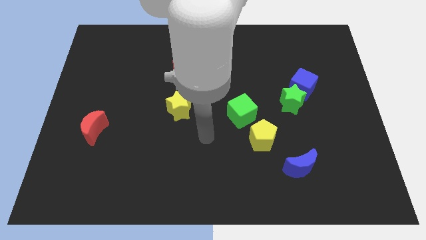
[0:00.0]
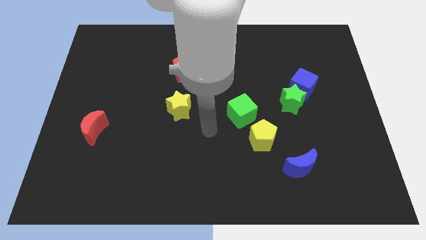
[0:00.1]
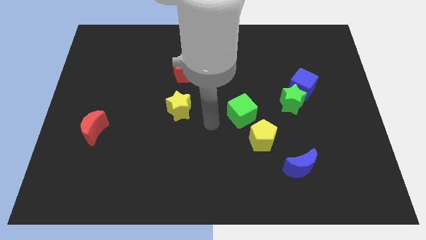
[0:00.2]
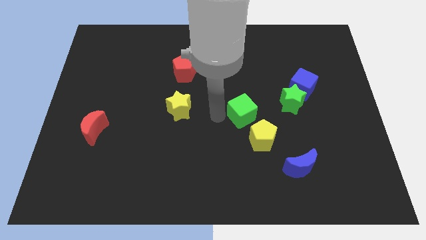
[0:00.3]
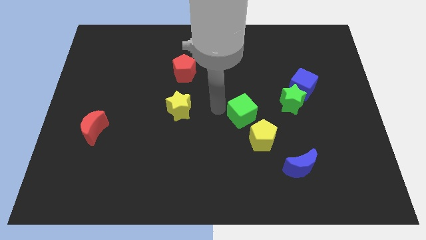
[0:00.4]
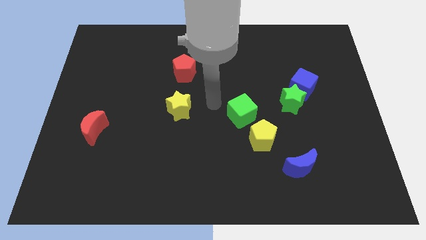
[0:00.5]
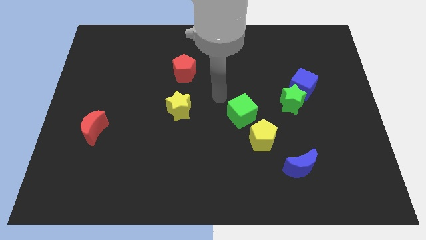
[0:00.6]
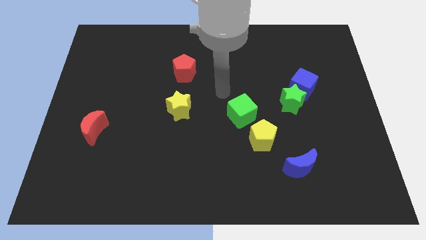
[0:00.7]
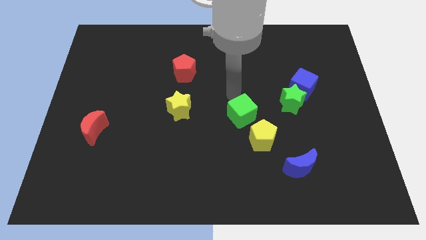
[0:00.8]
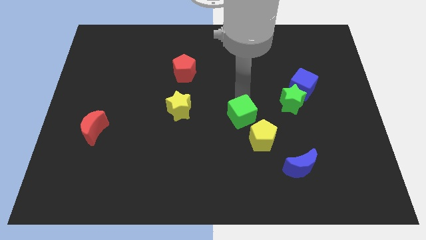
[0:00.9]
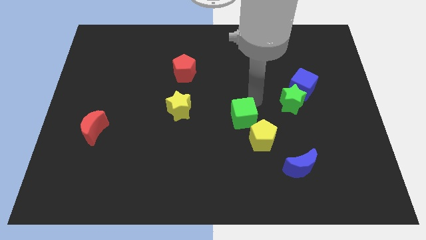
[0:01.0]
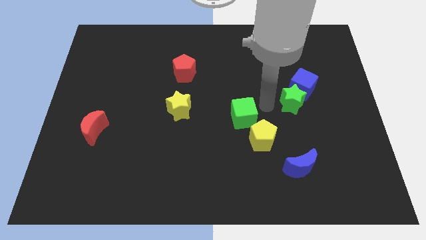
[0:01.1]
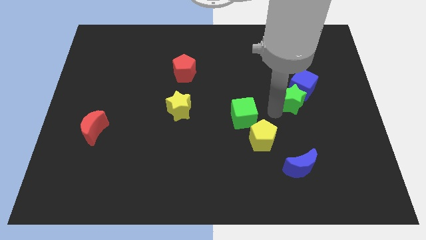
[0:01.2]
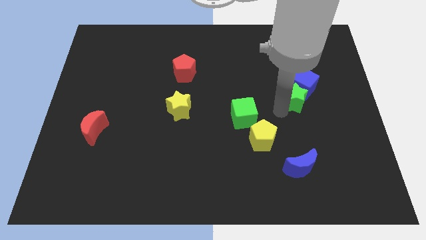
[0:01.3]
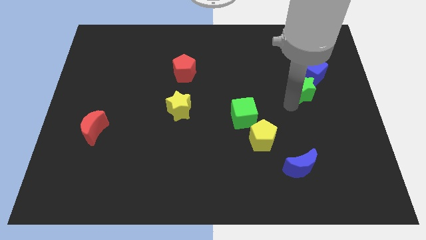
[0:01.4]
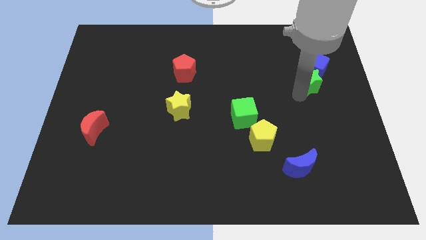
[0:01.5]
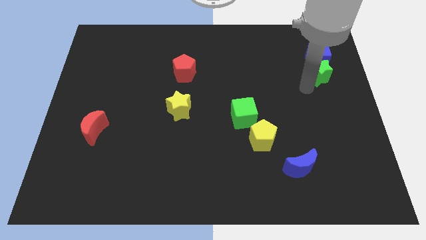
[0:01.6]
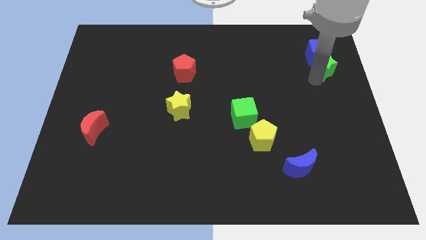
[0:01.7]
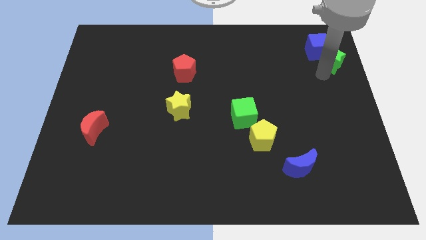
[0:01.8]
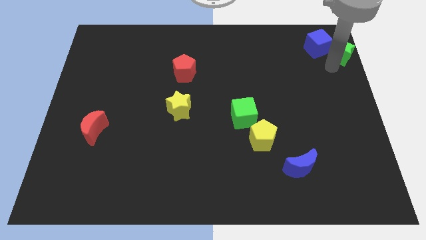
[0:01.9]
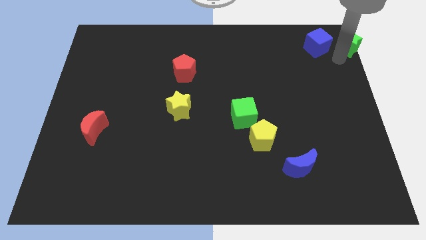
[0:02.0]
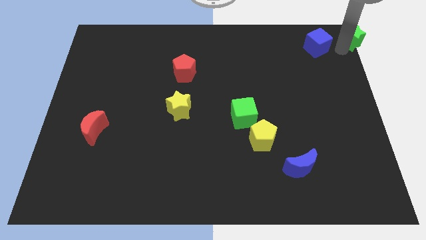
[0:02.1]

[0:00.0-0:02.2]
pull the blue cube apart from the green star

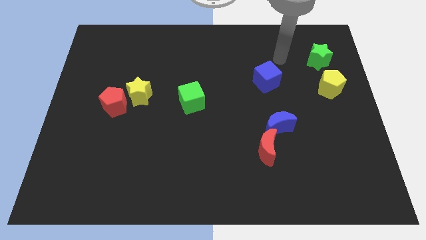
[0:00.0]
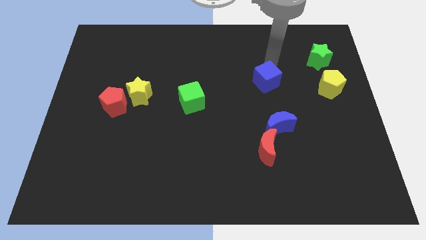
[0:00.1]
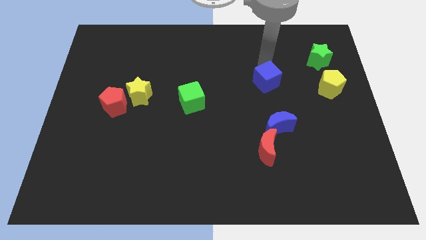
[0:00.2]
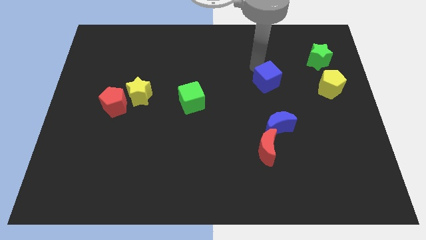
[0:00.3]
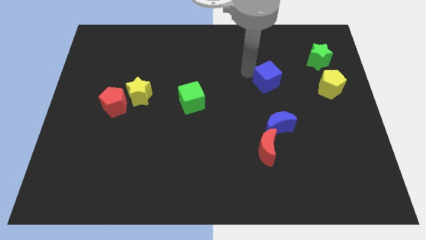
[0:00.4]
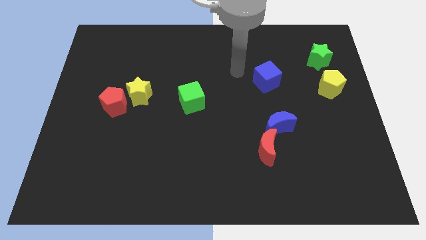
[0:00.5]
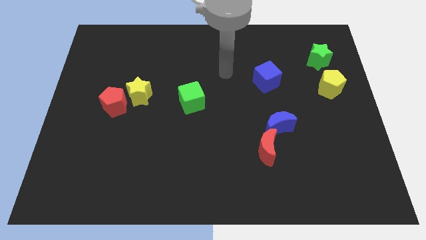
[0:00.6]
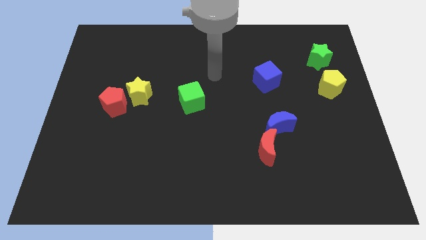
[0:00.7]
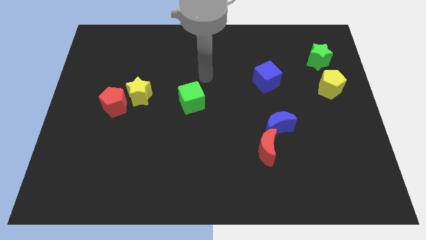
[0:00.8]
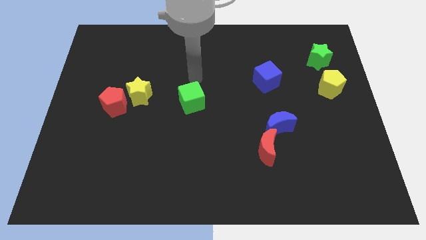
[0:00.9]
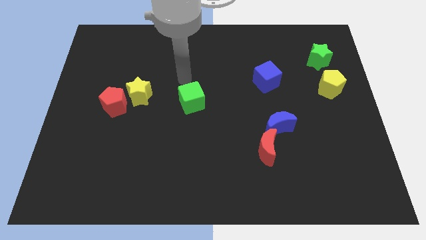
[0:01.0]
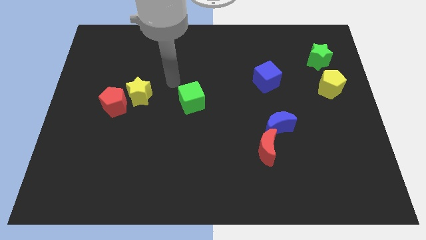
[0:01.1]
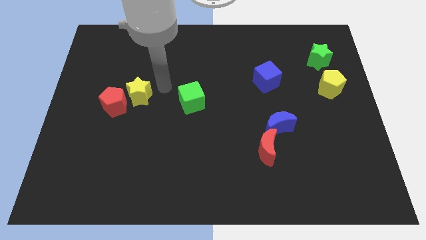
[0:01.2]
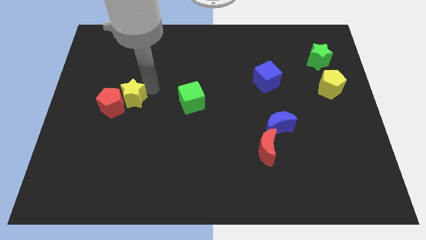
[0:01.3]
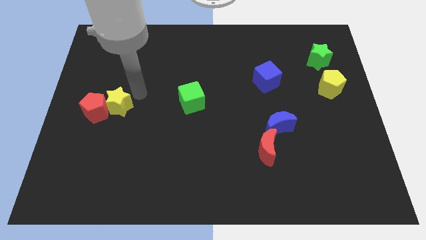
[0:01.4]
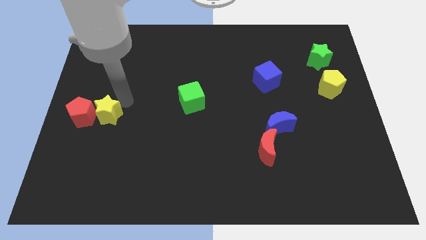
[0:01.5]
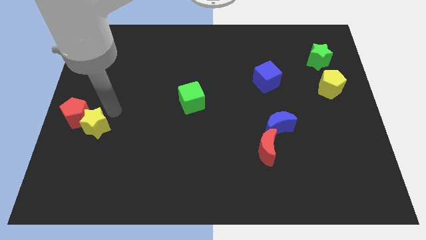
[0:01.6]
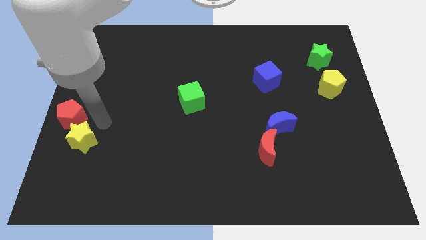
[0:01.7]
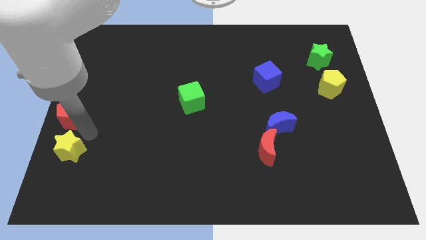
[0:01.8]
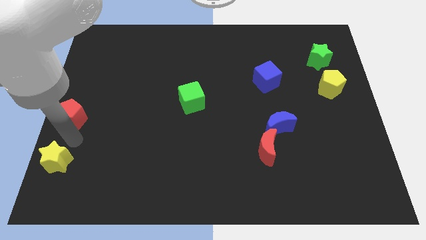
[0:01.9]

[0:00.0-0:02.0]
separate the red pentagon from the yellow star

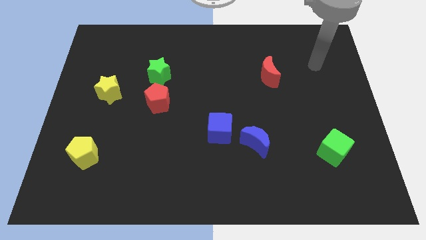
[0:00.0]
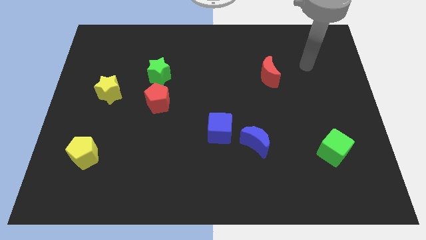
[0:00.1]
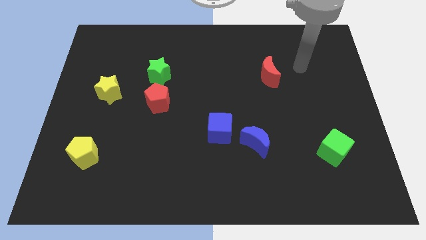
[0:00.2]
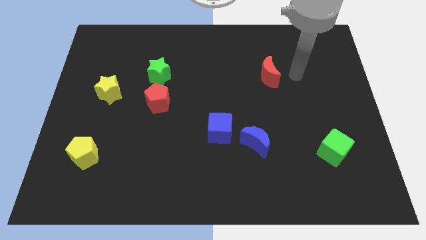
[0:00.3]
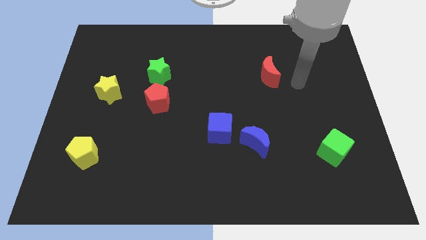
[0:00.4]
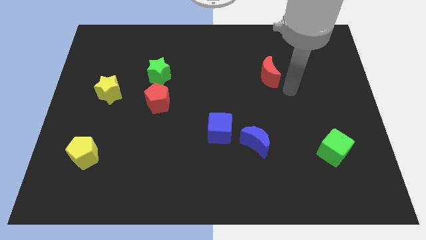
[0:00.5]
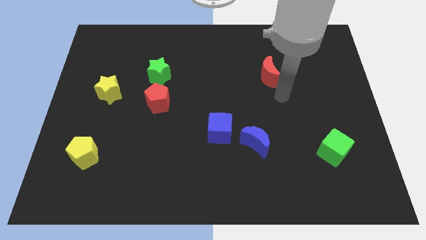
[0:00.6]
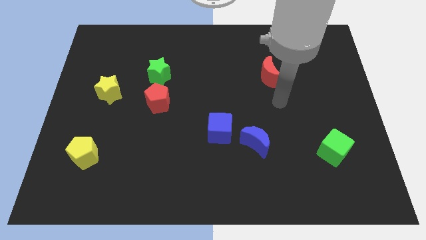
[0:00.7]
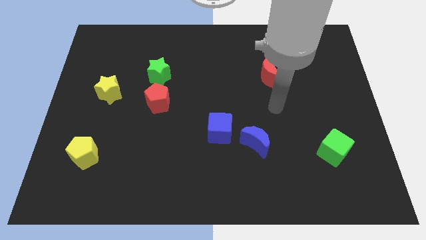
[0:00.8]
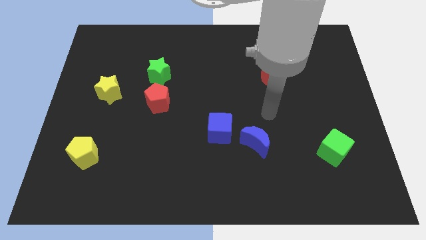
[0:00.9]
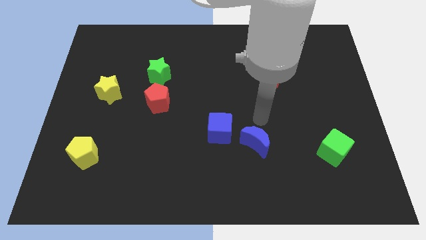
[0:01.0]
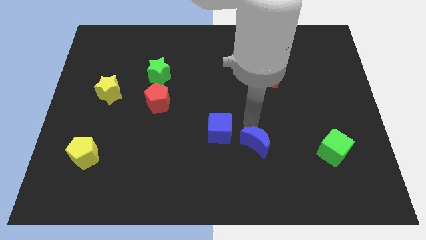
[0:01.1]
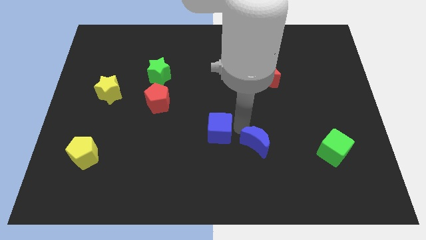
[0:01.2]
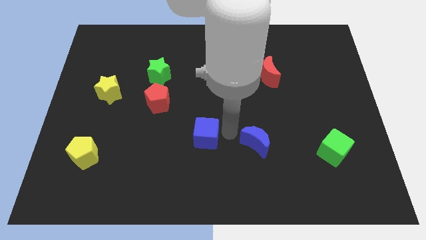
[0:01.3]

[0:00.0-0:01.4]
separate the blue moon from the blue cube

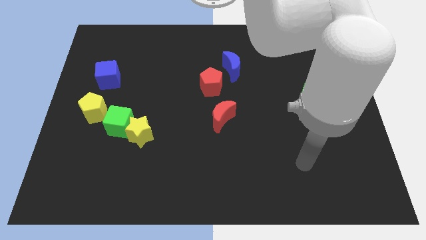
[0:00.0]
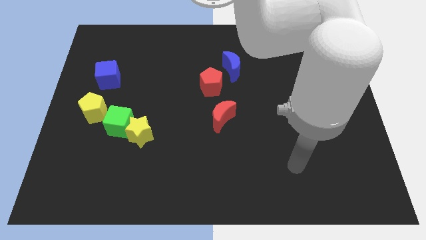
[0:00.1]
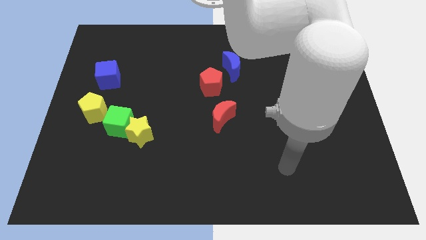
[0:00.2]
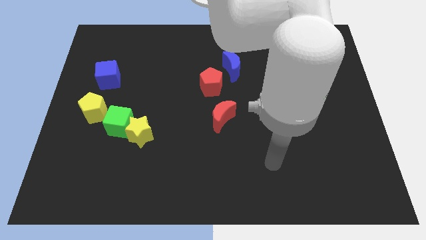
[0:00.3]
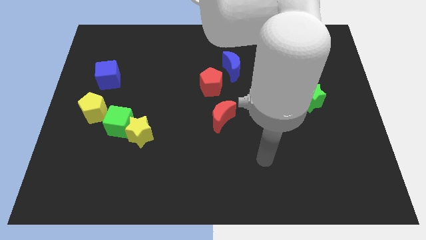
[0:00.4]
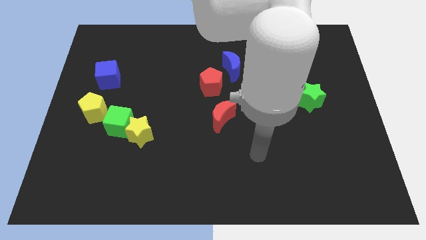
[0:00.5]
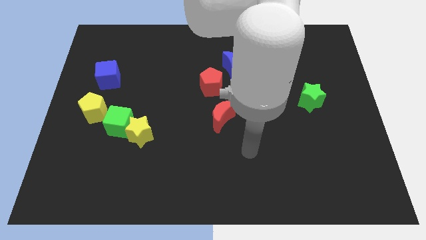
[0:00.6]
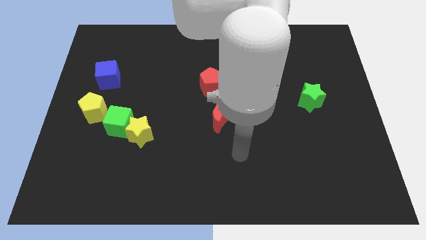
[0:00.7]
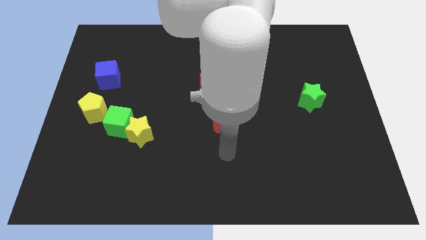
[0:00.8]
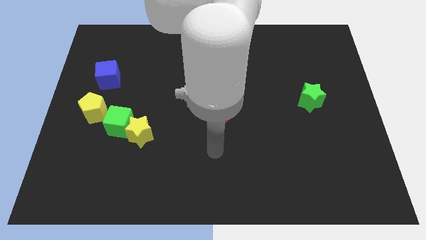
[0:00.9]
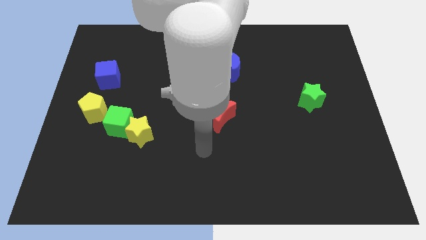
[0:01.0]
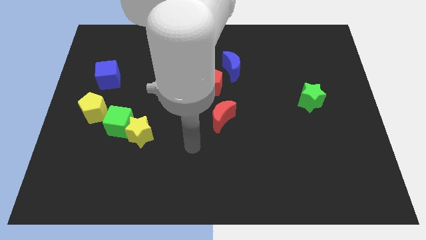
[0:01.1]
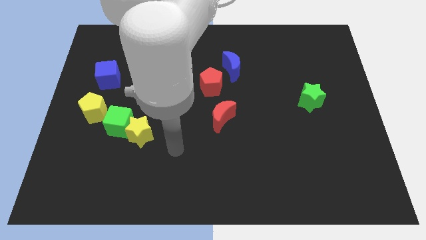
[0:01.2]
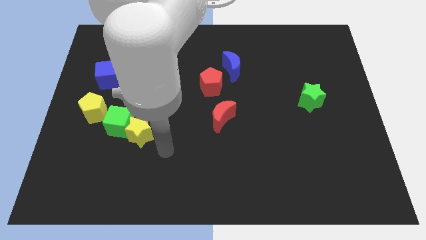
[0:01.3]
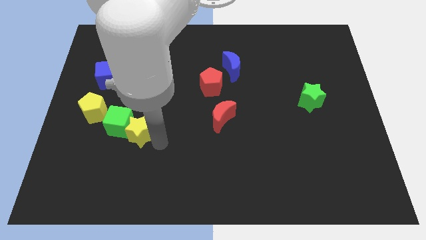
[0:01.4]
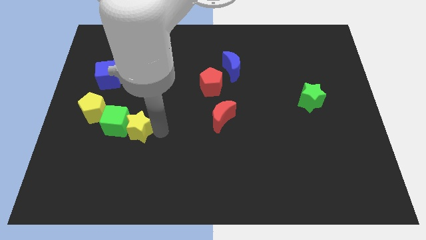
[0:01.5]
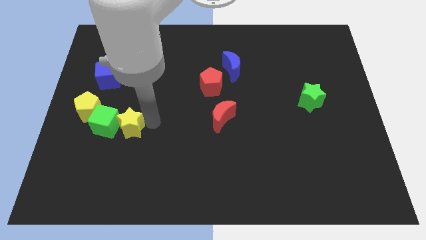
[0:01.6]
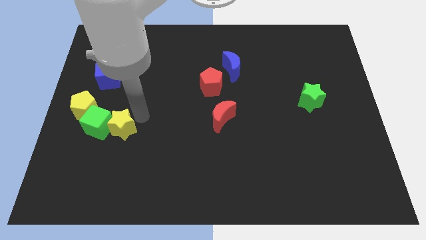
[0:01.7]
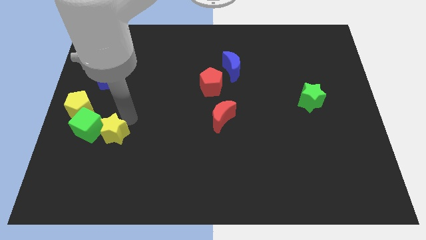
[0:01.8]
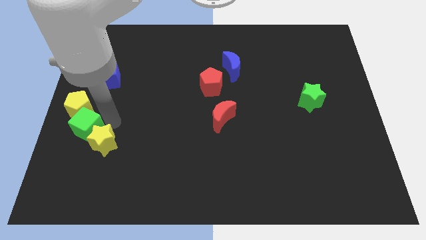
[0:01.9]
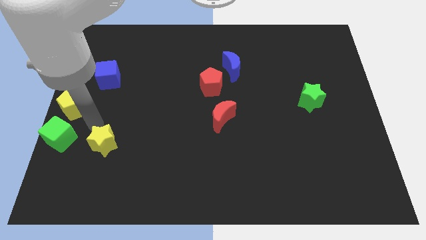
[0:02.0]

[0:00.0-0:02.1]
pull the yellow star apart from the green cube

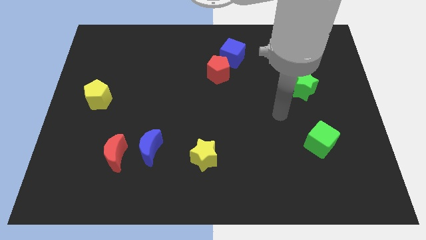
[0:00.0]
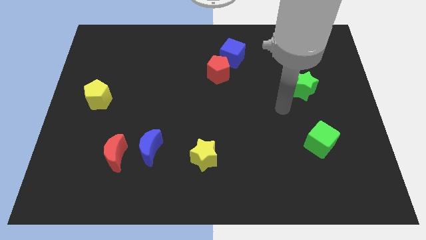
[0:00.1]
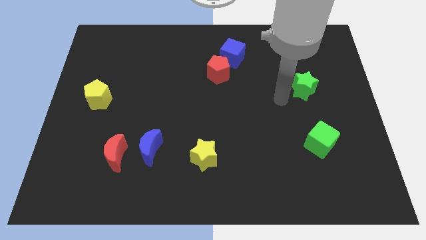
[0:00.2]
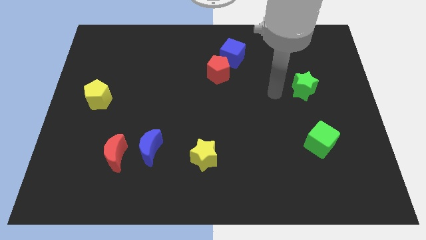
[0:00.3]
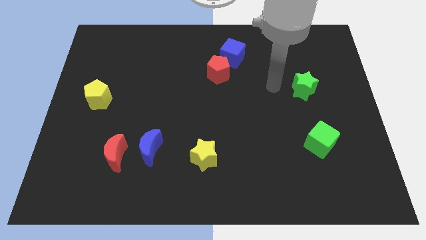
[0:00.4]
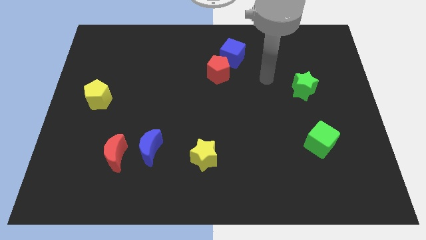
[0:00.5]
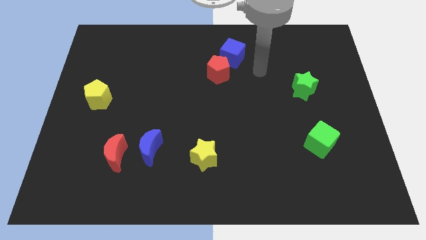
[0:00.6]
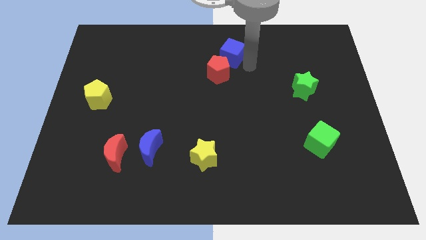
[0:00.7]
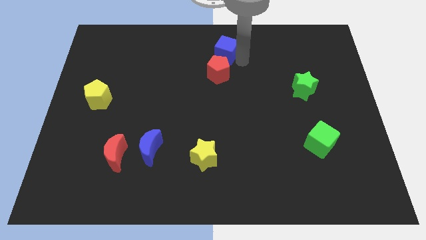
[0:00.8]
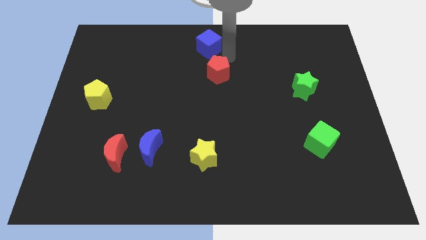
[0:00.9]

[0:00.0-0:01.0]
separate the red pentagon from the blue cube

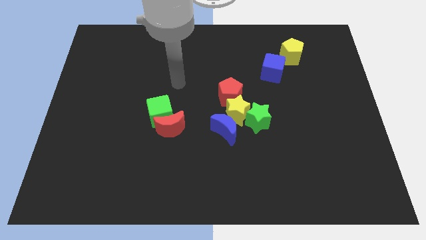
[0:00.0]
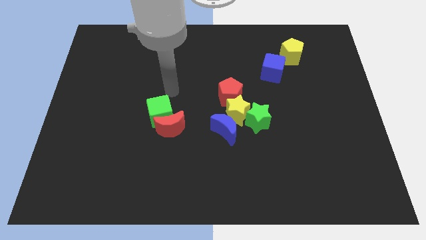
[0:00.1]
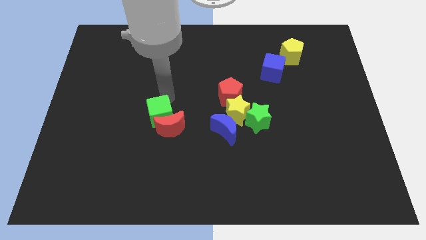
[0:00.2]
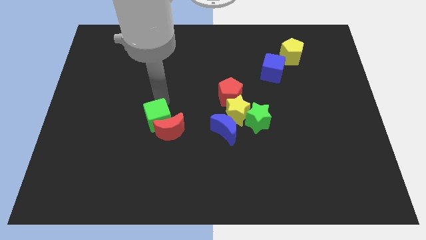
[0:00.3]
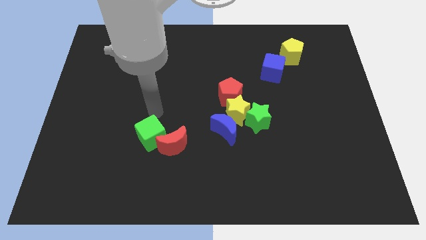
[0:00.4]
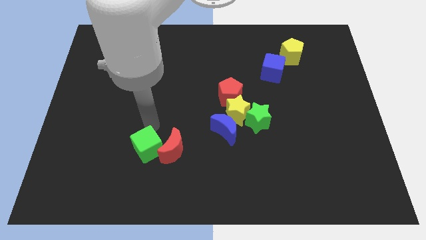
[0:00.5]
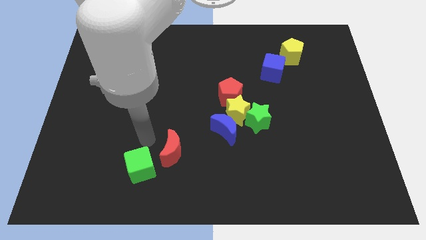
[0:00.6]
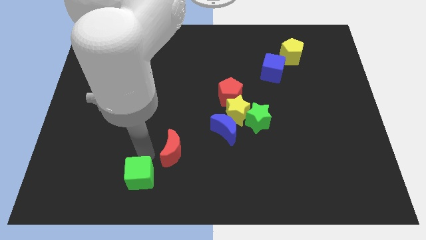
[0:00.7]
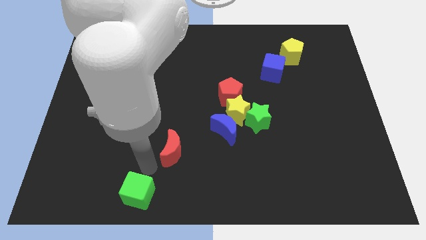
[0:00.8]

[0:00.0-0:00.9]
separate the red moon from the green cube
